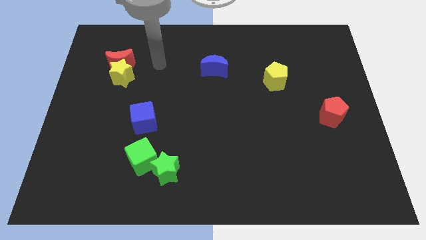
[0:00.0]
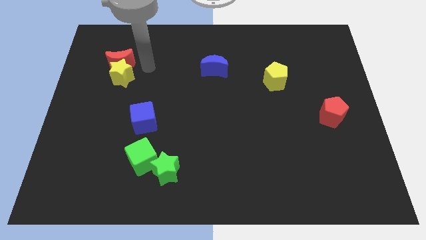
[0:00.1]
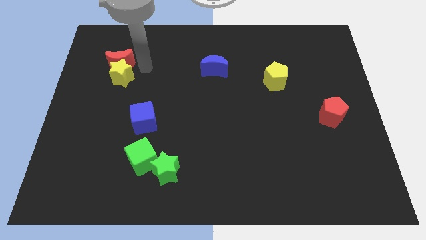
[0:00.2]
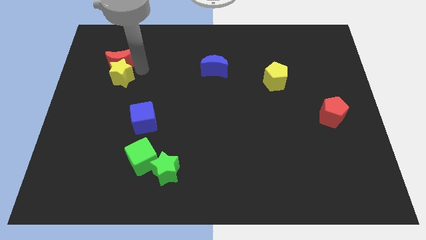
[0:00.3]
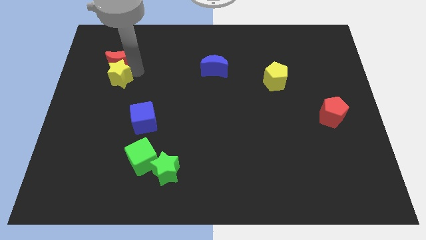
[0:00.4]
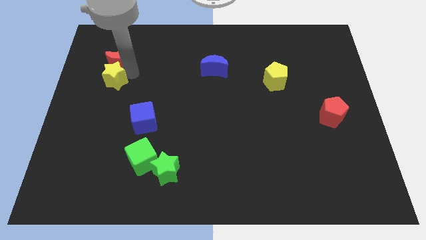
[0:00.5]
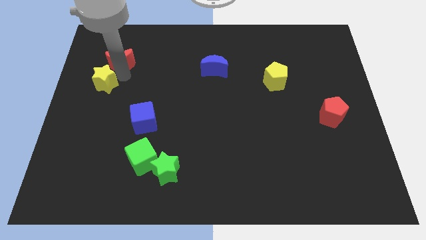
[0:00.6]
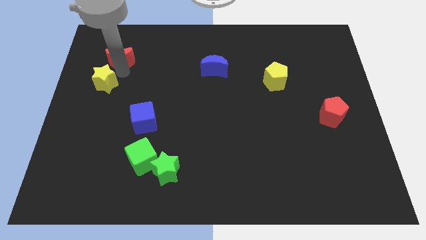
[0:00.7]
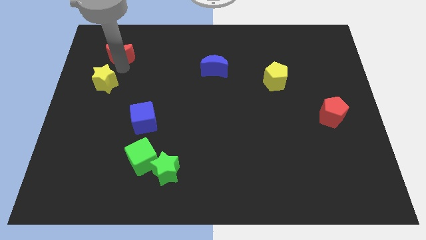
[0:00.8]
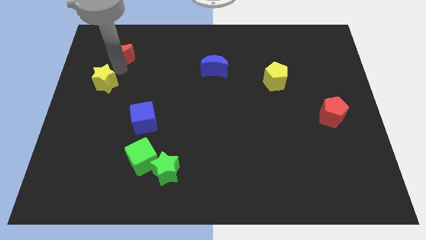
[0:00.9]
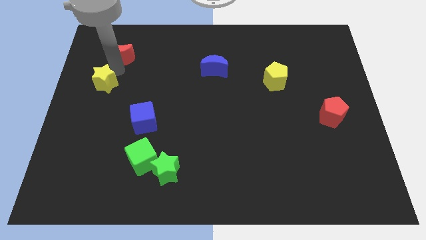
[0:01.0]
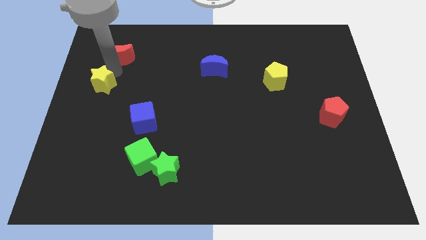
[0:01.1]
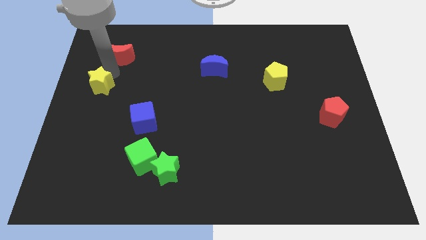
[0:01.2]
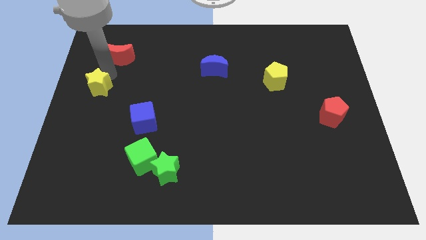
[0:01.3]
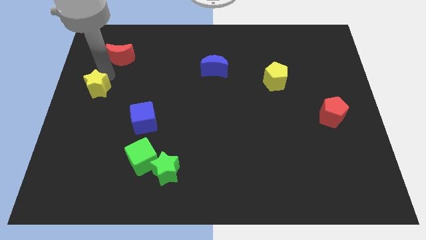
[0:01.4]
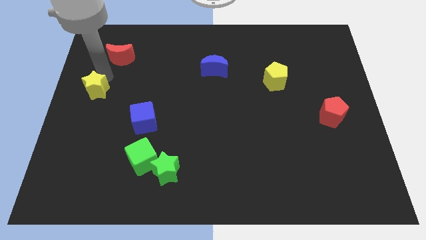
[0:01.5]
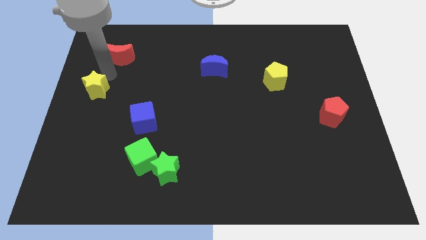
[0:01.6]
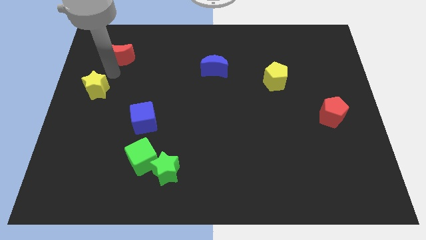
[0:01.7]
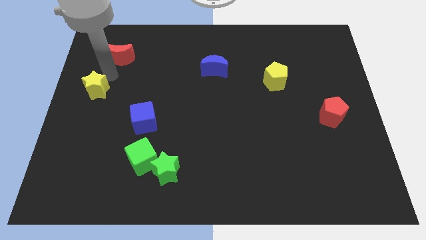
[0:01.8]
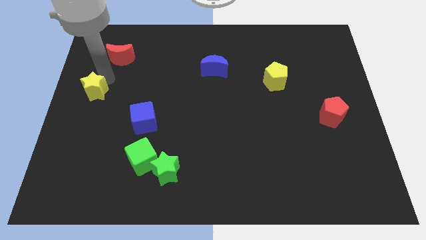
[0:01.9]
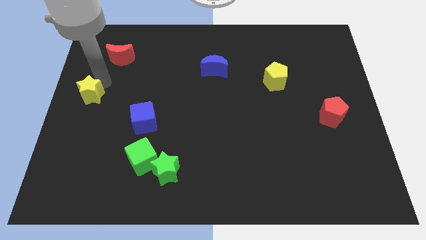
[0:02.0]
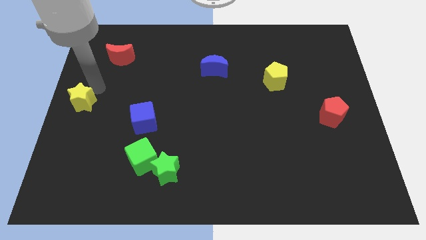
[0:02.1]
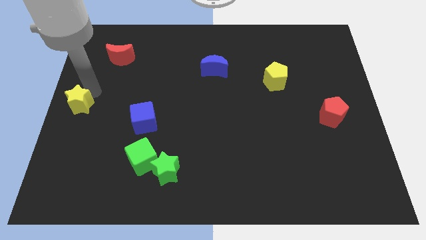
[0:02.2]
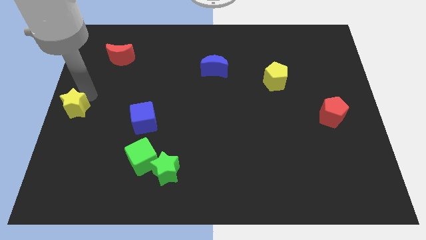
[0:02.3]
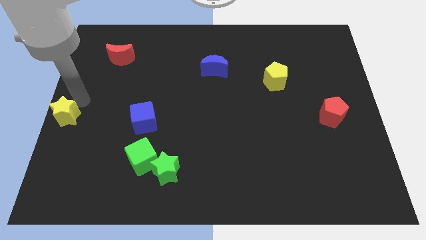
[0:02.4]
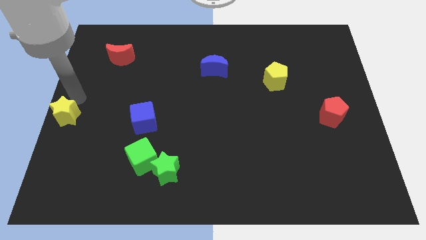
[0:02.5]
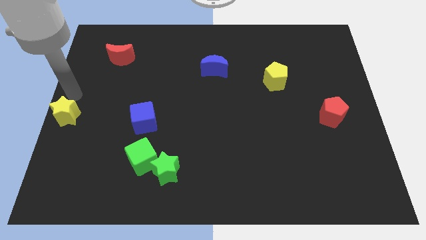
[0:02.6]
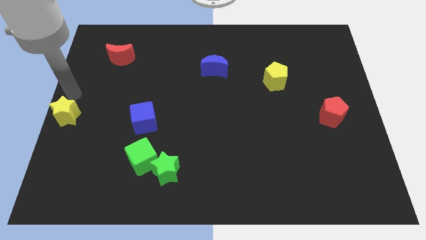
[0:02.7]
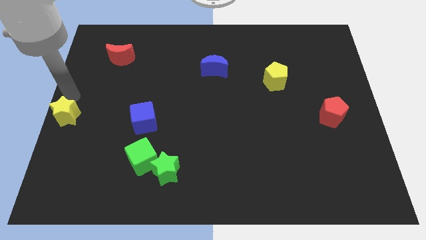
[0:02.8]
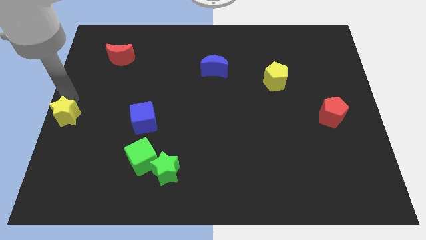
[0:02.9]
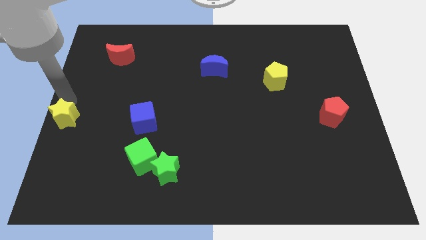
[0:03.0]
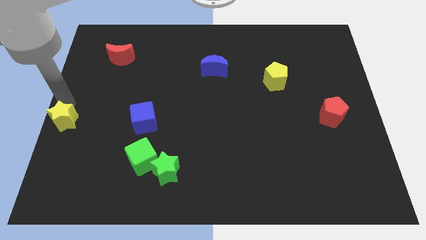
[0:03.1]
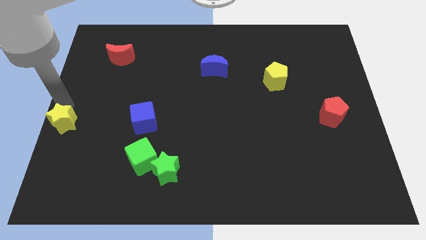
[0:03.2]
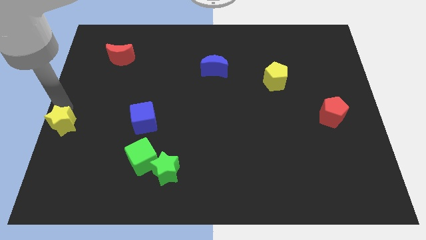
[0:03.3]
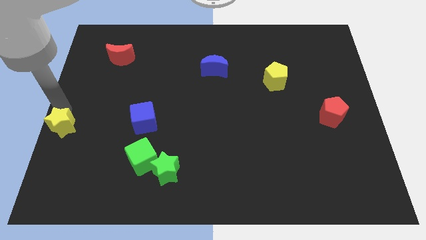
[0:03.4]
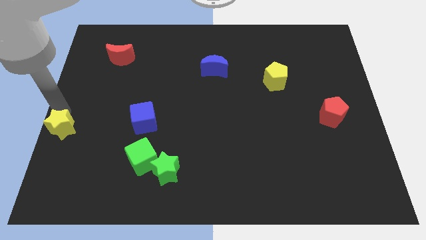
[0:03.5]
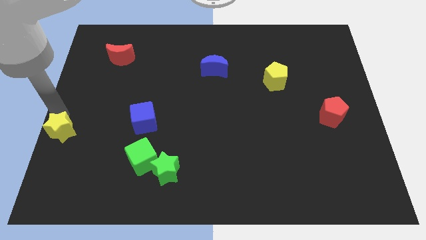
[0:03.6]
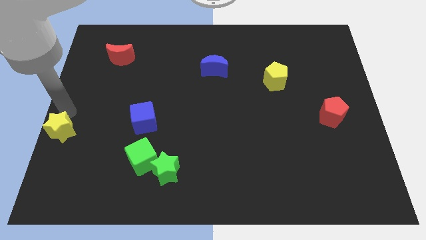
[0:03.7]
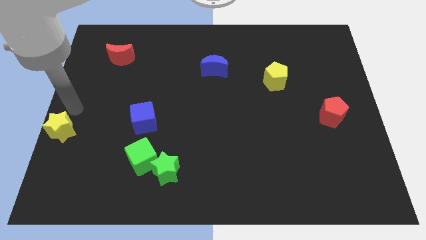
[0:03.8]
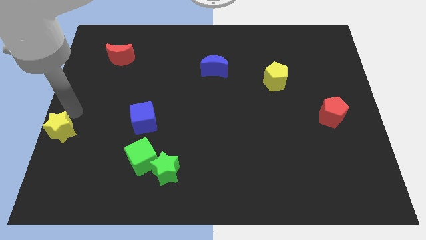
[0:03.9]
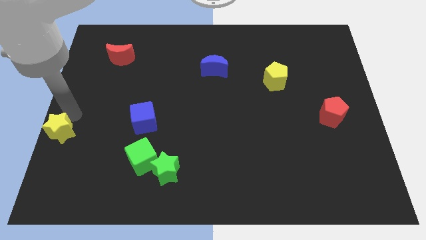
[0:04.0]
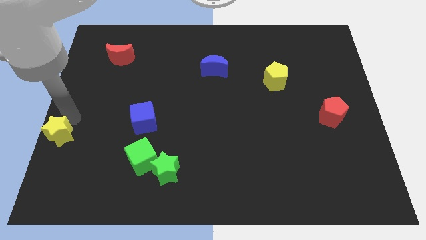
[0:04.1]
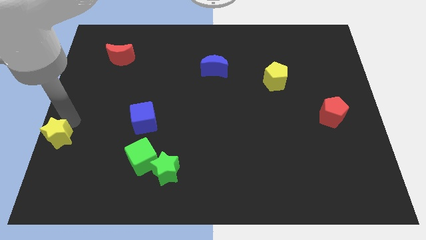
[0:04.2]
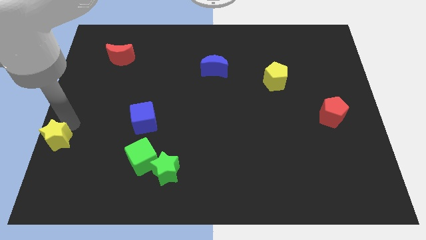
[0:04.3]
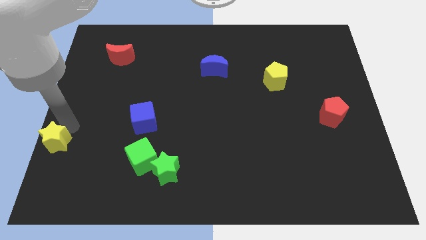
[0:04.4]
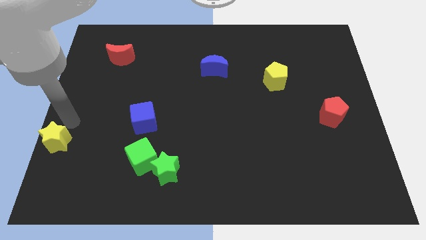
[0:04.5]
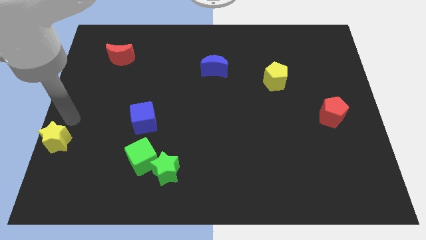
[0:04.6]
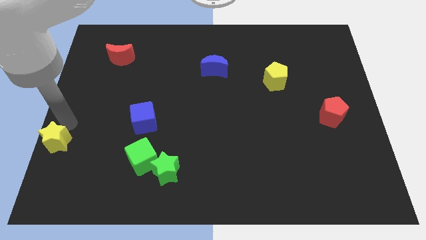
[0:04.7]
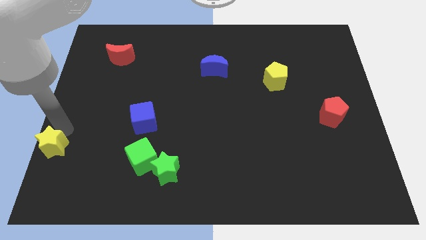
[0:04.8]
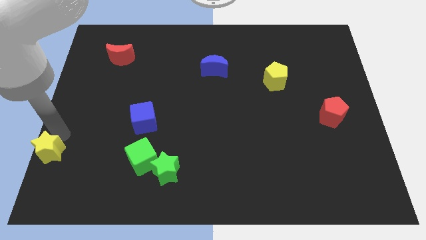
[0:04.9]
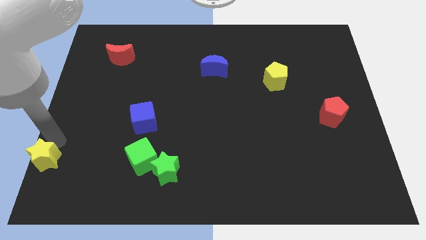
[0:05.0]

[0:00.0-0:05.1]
move the yellow star to the bottom left corner

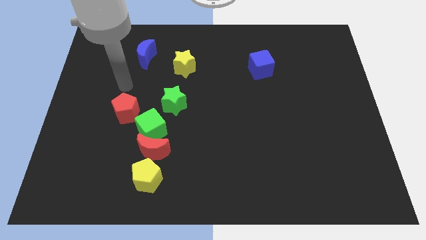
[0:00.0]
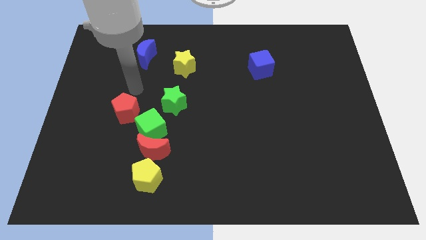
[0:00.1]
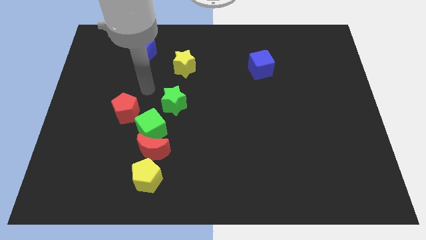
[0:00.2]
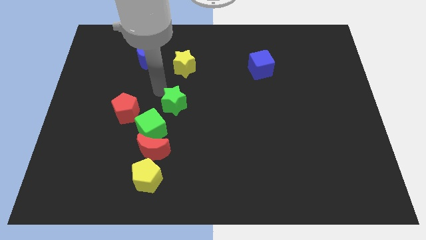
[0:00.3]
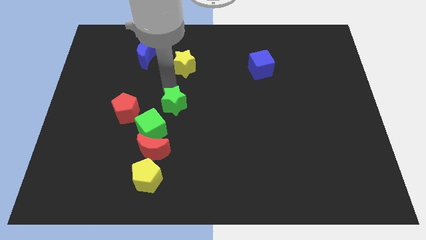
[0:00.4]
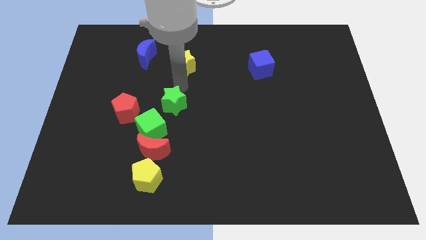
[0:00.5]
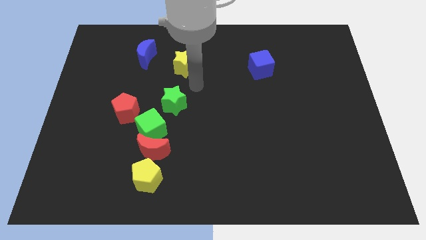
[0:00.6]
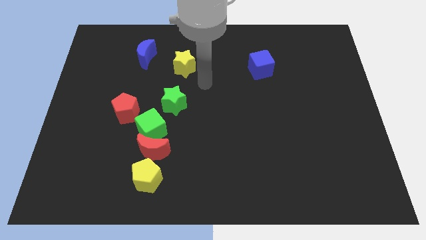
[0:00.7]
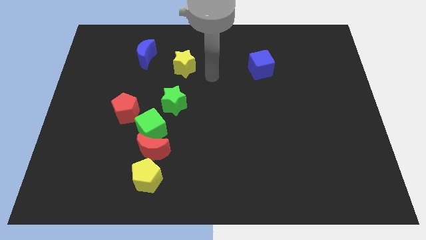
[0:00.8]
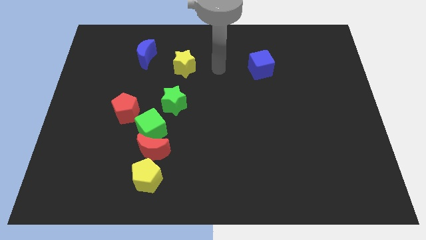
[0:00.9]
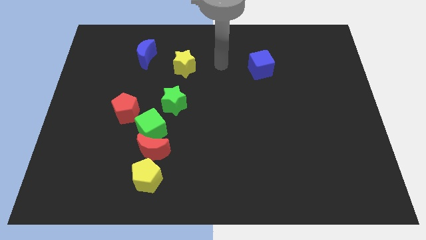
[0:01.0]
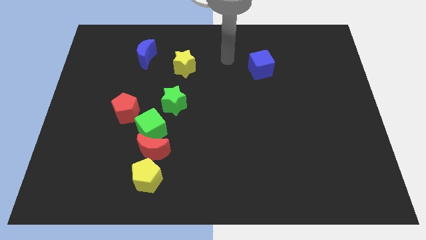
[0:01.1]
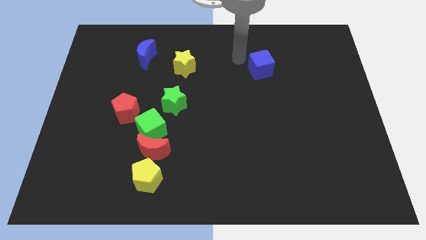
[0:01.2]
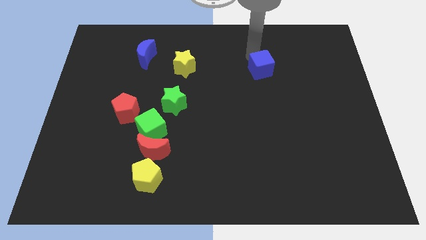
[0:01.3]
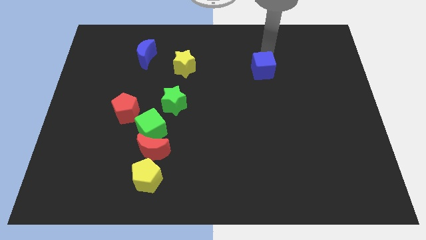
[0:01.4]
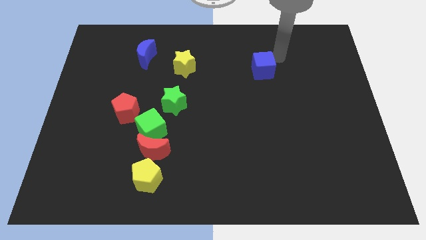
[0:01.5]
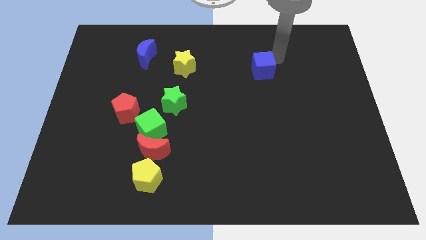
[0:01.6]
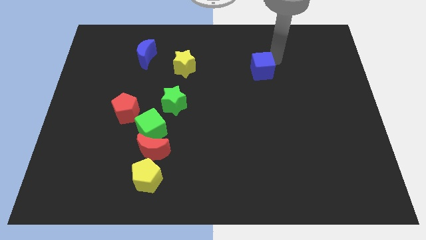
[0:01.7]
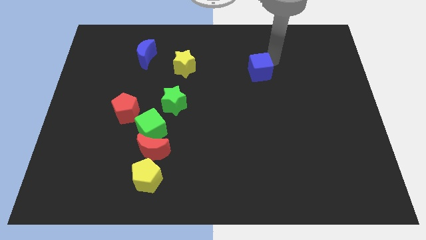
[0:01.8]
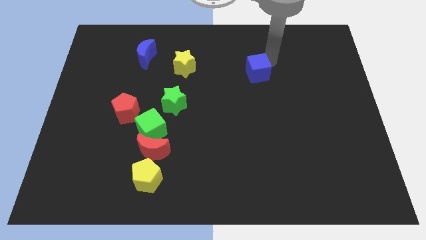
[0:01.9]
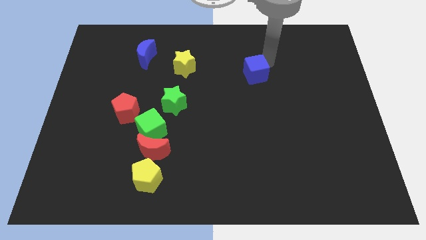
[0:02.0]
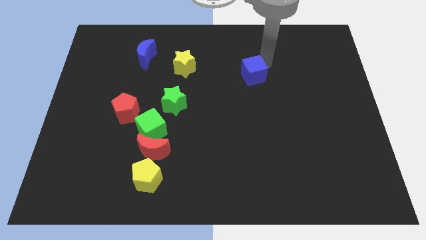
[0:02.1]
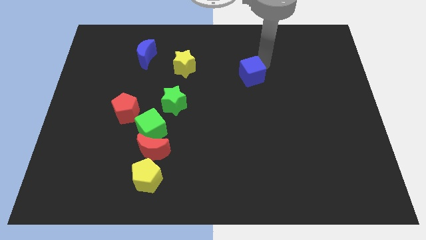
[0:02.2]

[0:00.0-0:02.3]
put the blue cube to the middle of the board
